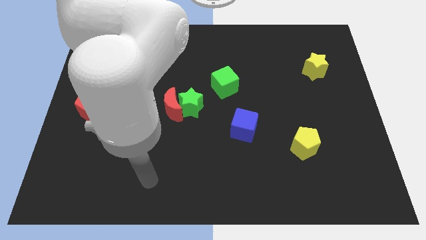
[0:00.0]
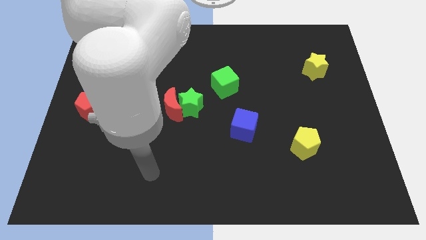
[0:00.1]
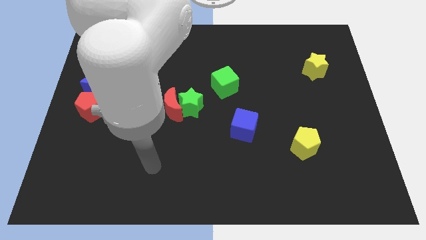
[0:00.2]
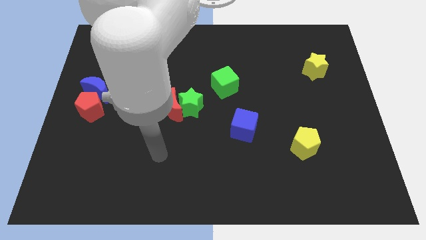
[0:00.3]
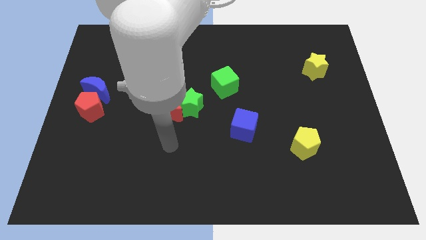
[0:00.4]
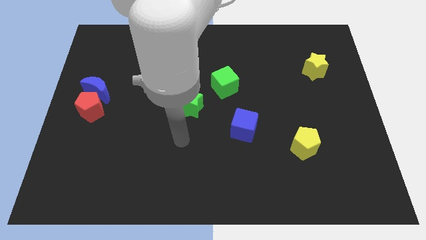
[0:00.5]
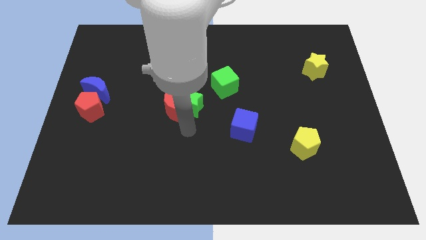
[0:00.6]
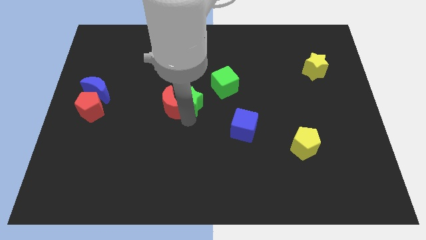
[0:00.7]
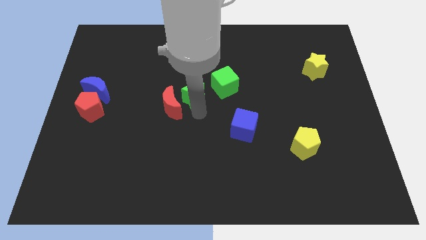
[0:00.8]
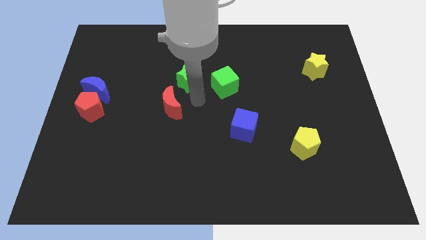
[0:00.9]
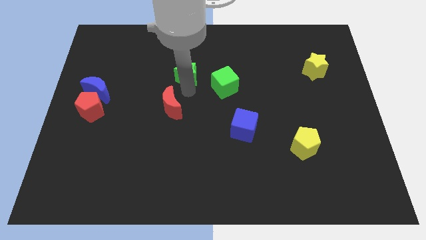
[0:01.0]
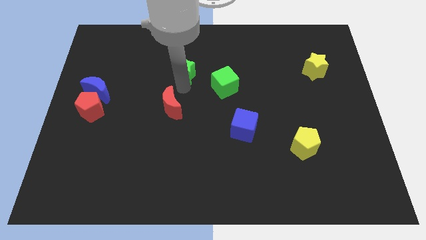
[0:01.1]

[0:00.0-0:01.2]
move the red moon away from the green star

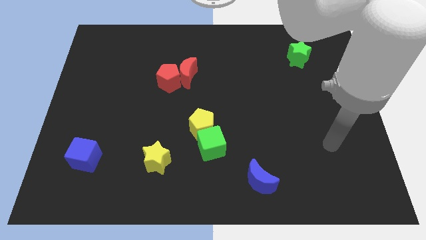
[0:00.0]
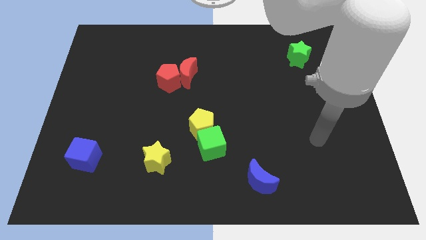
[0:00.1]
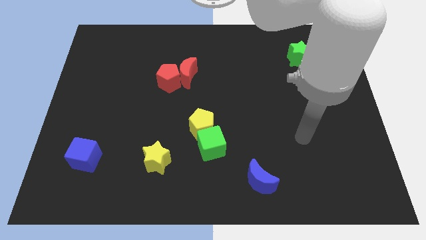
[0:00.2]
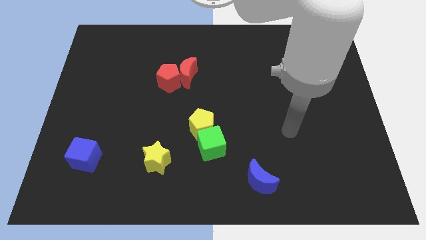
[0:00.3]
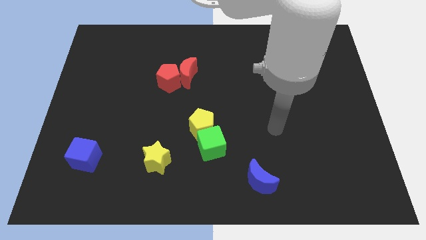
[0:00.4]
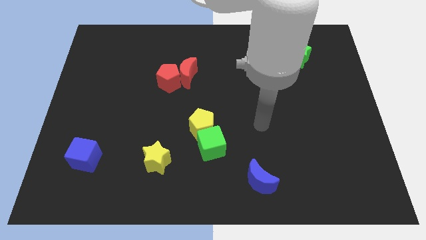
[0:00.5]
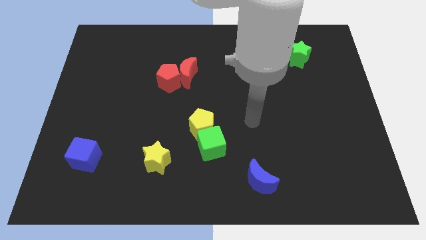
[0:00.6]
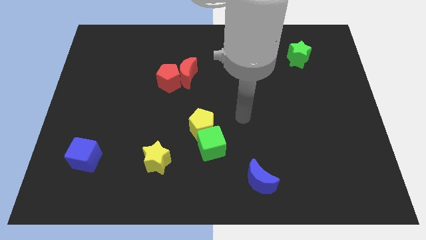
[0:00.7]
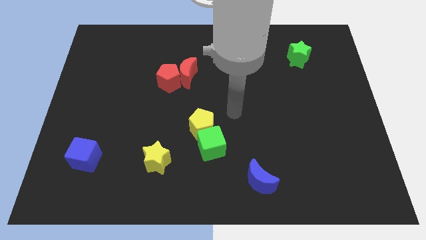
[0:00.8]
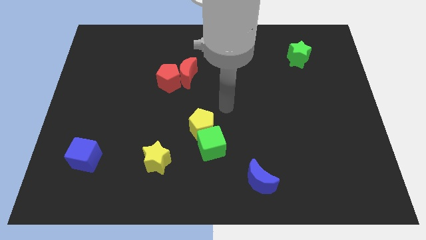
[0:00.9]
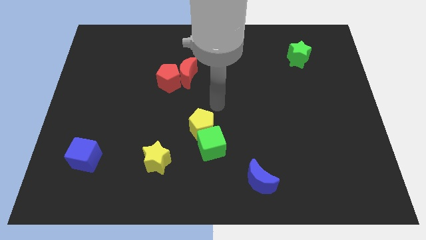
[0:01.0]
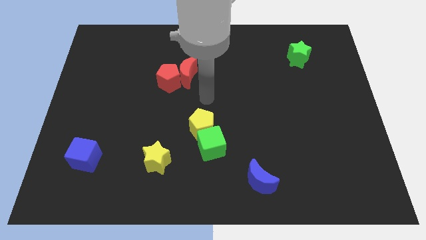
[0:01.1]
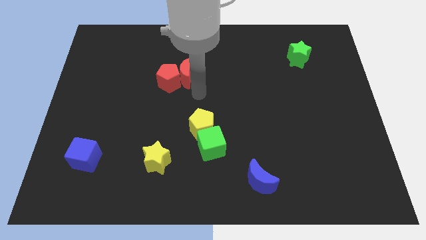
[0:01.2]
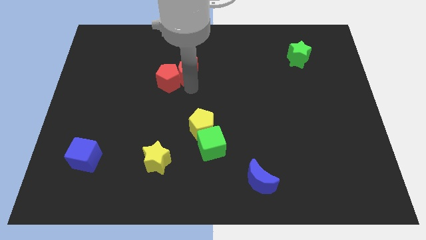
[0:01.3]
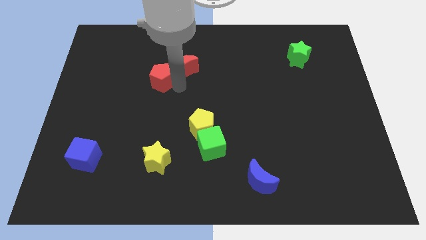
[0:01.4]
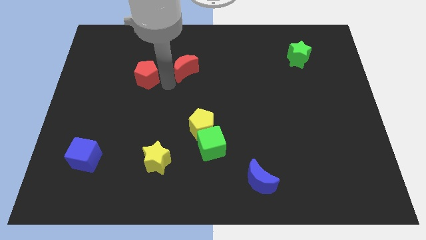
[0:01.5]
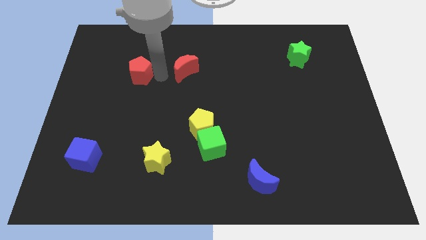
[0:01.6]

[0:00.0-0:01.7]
separate the red moon from the red pentagon

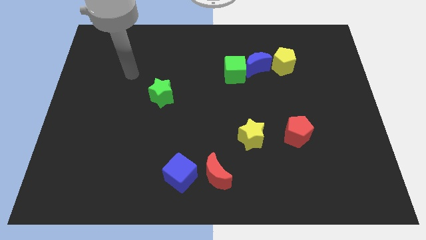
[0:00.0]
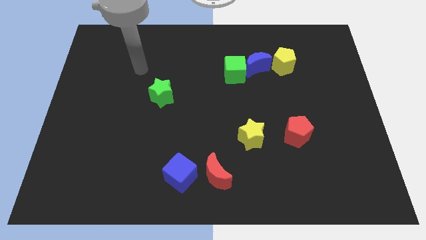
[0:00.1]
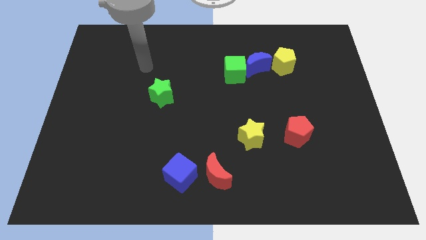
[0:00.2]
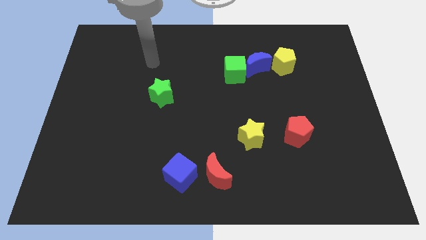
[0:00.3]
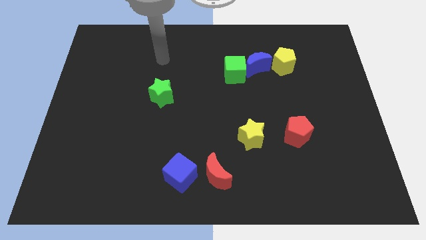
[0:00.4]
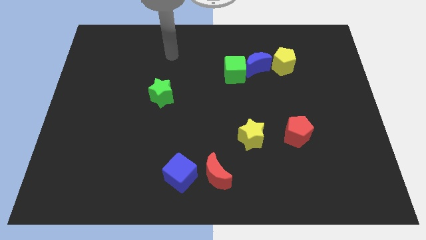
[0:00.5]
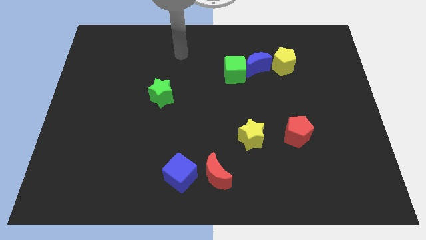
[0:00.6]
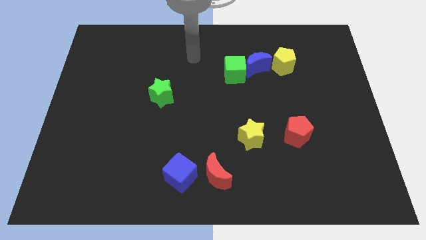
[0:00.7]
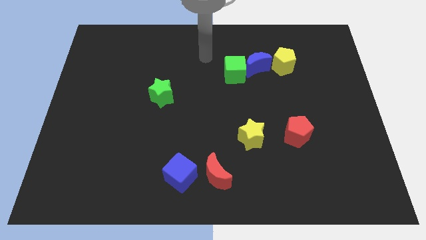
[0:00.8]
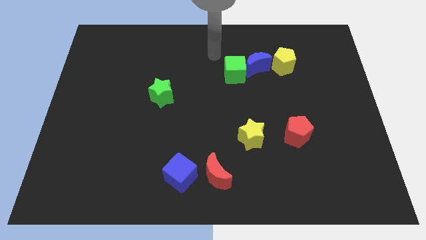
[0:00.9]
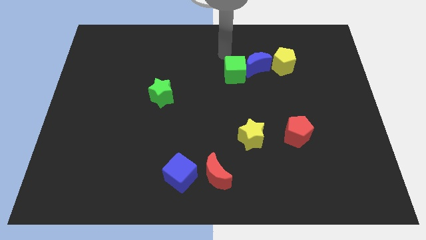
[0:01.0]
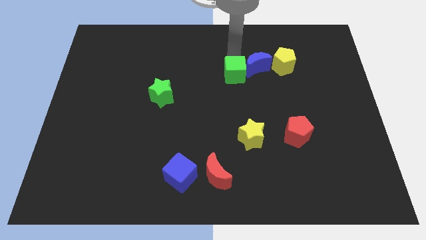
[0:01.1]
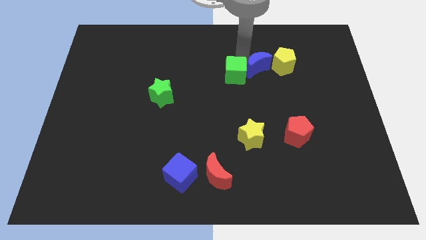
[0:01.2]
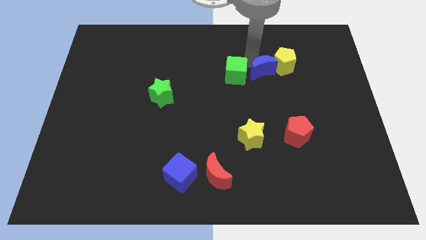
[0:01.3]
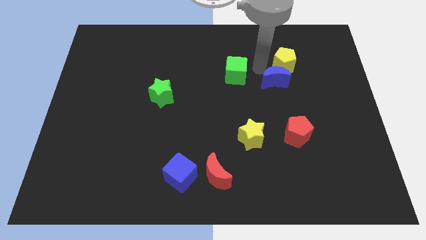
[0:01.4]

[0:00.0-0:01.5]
pull the green cube apart from the blue moon

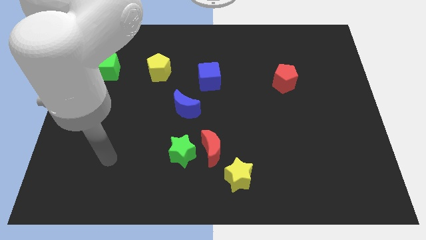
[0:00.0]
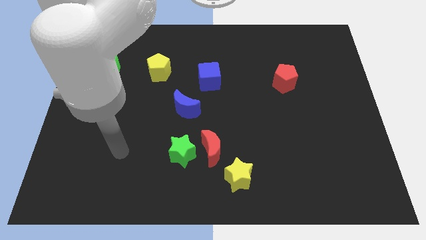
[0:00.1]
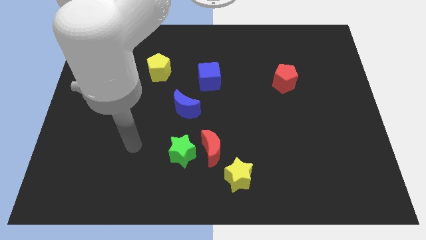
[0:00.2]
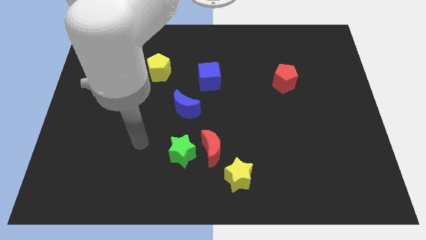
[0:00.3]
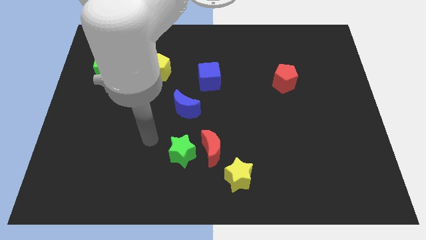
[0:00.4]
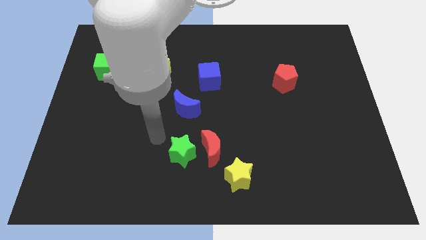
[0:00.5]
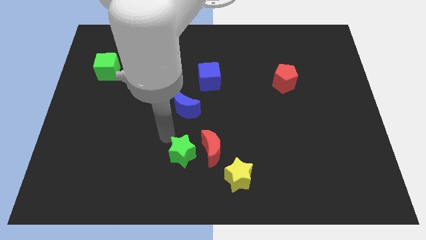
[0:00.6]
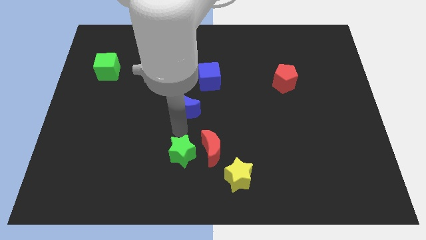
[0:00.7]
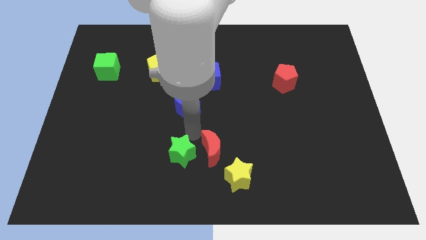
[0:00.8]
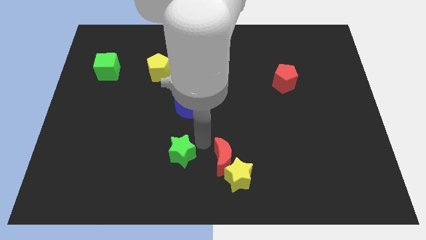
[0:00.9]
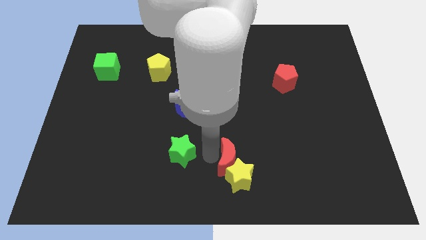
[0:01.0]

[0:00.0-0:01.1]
move the green star away from the red moon

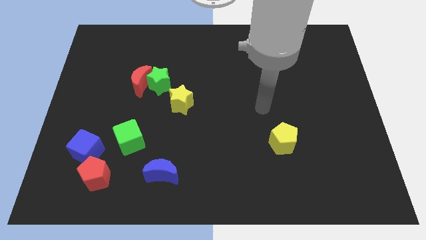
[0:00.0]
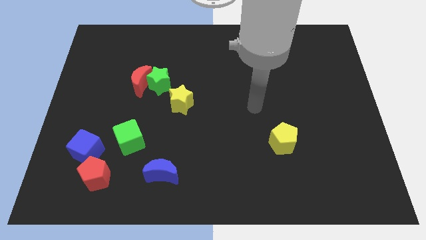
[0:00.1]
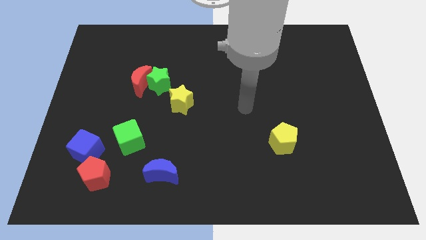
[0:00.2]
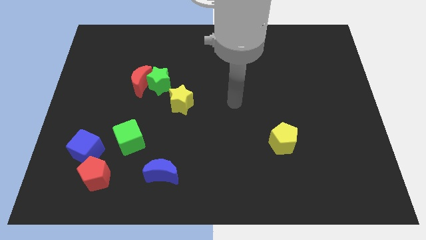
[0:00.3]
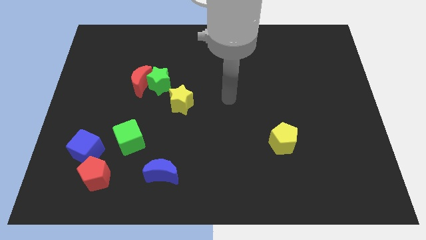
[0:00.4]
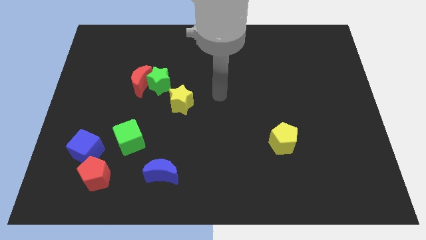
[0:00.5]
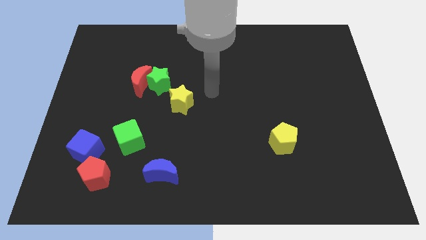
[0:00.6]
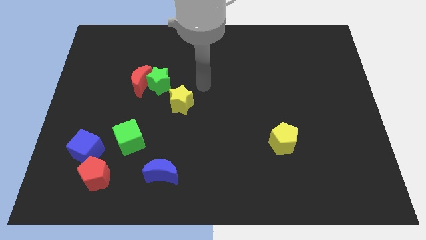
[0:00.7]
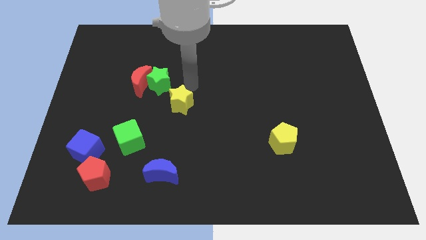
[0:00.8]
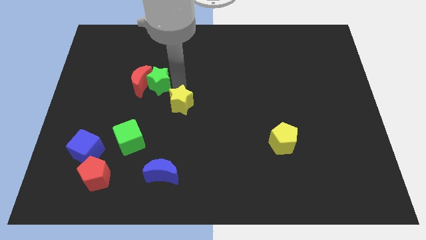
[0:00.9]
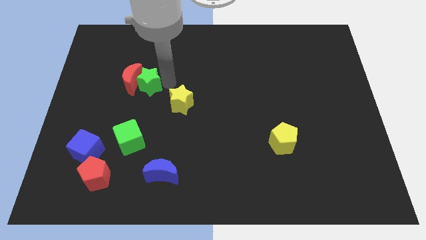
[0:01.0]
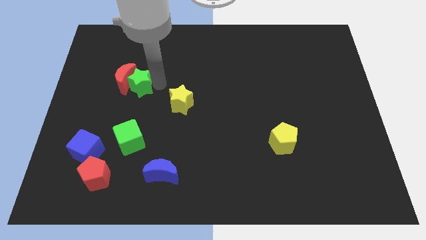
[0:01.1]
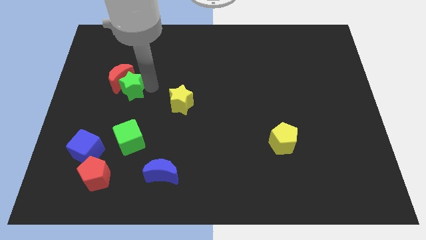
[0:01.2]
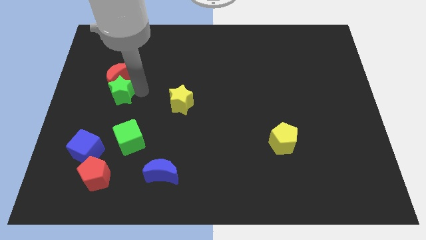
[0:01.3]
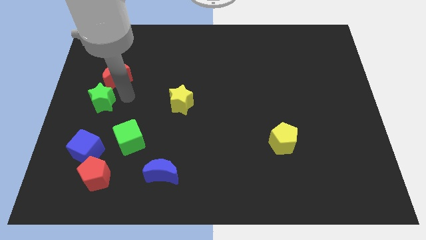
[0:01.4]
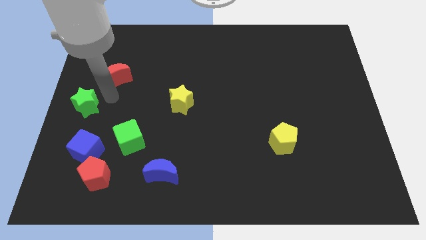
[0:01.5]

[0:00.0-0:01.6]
separate the red moon from the green star

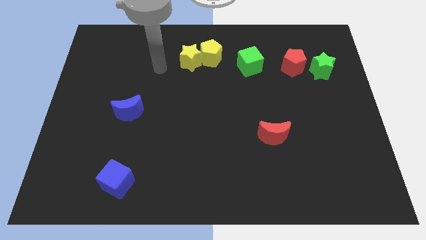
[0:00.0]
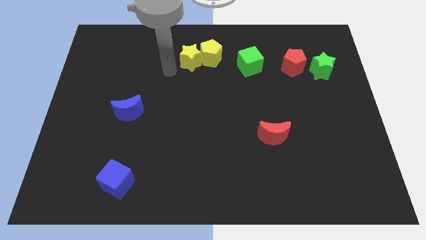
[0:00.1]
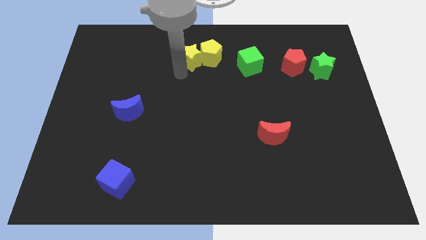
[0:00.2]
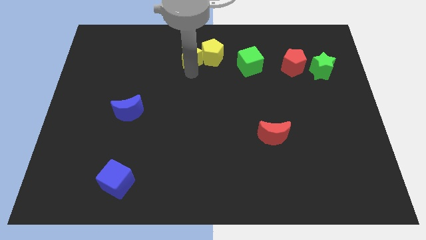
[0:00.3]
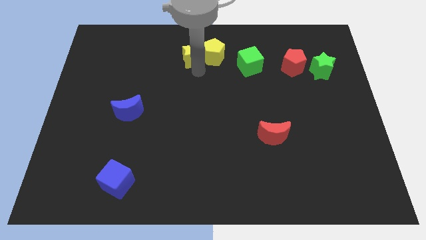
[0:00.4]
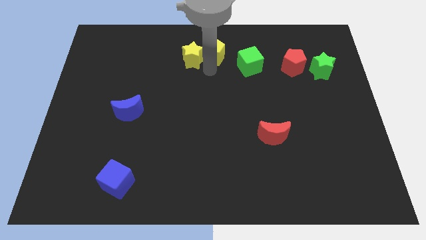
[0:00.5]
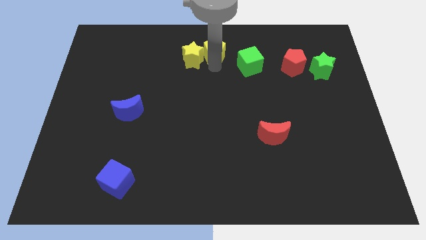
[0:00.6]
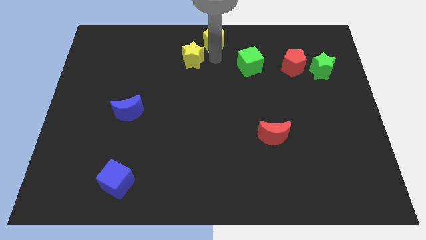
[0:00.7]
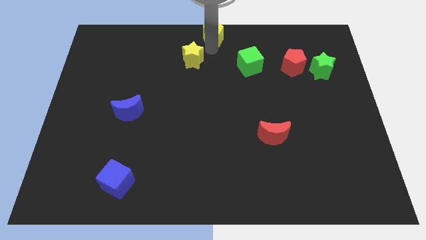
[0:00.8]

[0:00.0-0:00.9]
move the yellow star away from the yellow pentagon

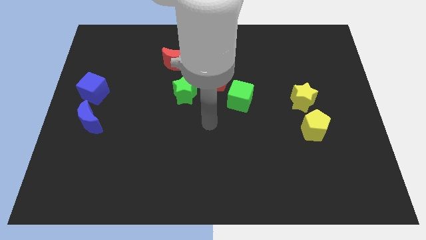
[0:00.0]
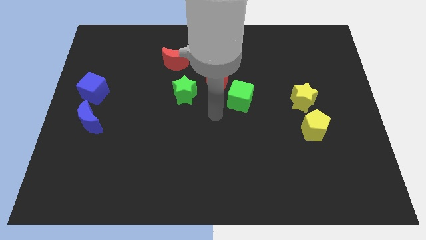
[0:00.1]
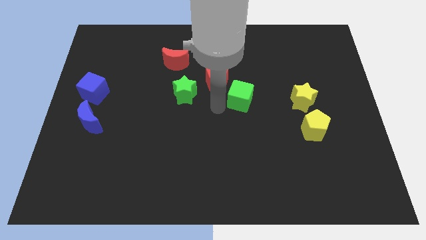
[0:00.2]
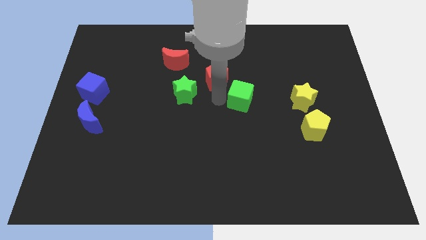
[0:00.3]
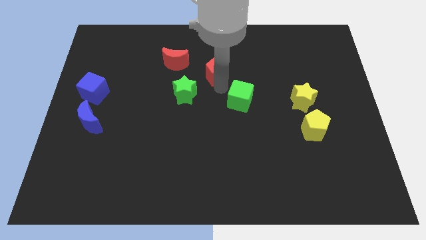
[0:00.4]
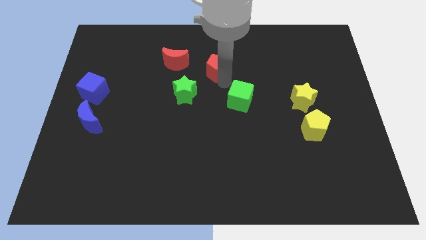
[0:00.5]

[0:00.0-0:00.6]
pull the green cube apart from the red pentagon

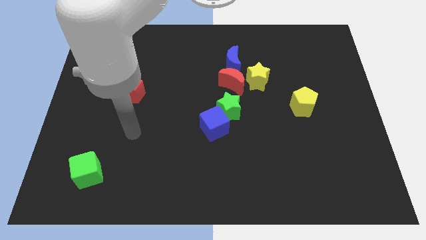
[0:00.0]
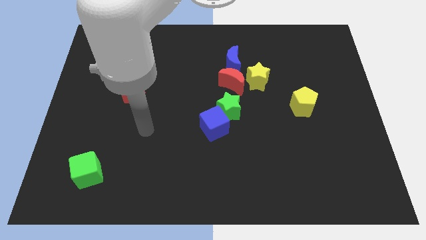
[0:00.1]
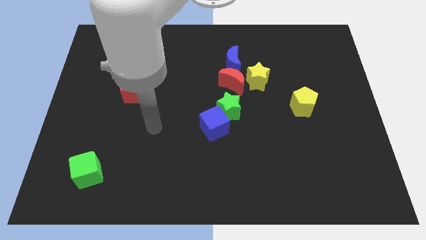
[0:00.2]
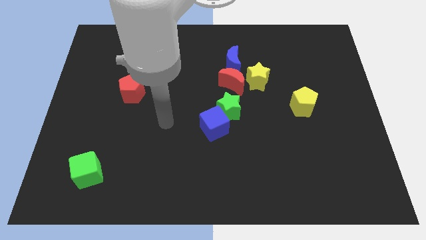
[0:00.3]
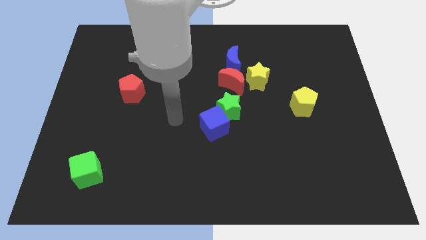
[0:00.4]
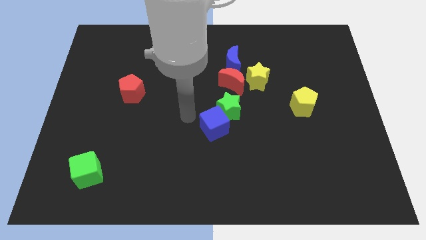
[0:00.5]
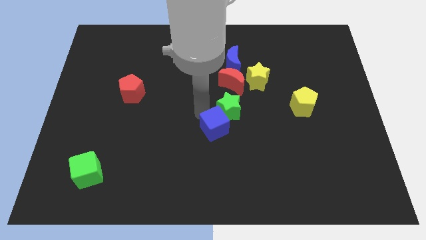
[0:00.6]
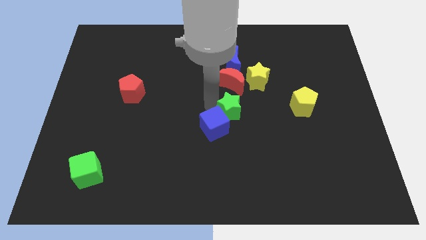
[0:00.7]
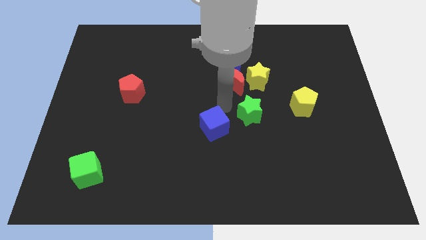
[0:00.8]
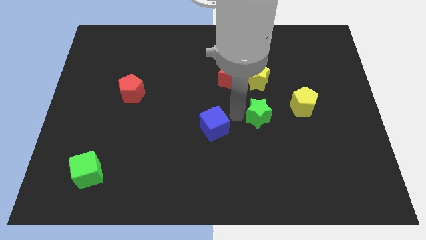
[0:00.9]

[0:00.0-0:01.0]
move the blue cube away from the green star
